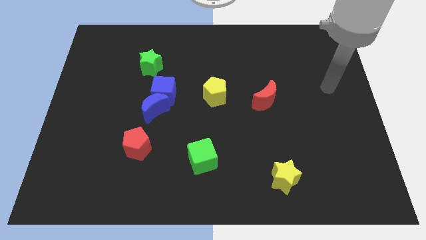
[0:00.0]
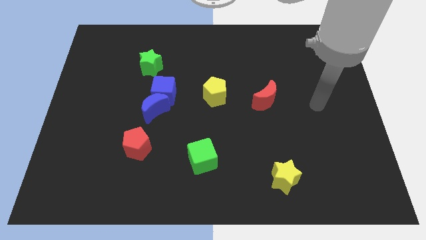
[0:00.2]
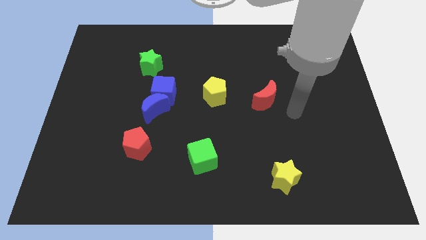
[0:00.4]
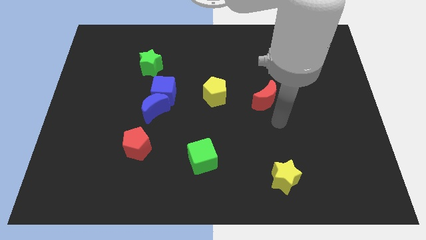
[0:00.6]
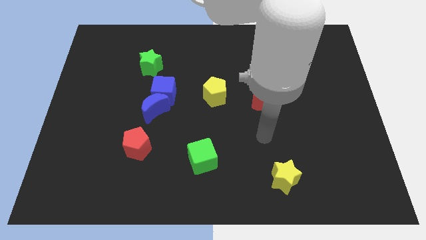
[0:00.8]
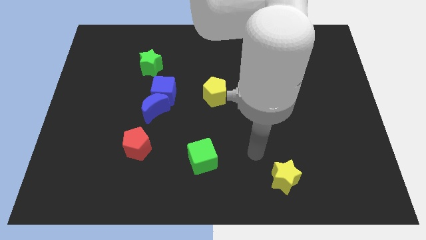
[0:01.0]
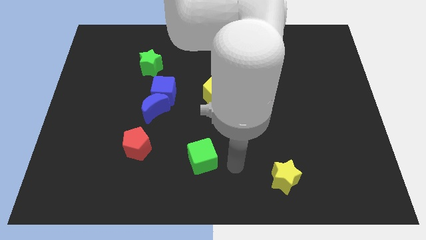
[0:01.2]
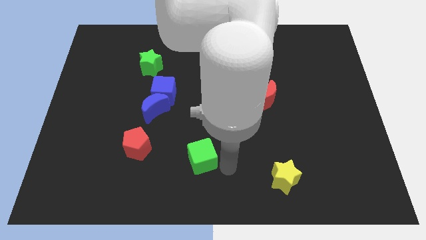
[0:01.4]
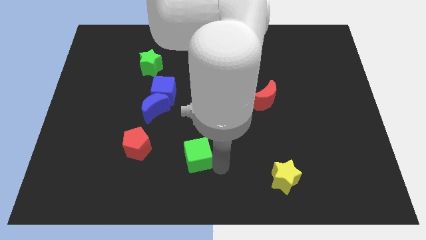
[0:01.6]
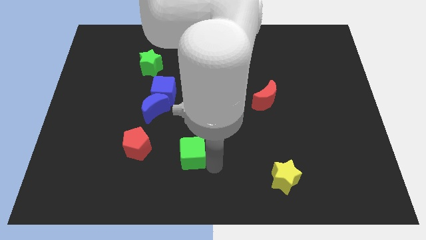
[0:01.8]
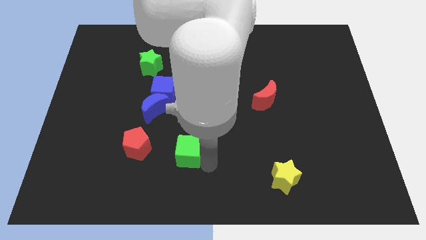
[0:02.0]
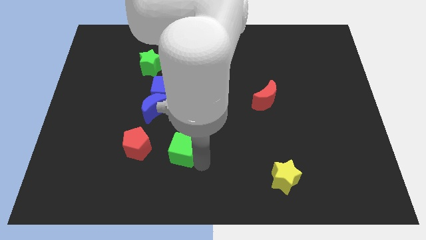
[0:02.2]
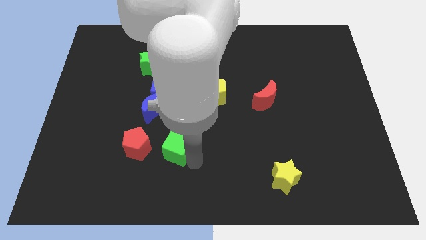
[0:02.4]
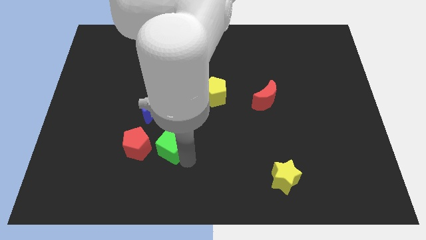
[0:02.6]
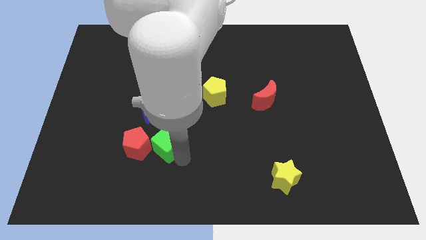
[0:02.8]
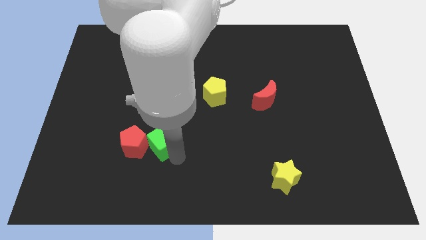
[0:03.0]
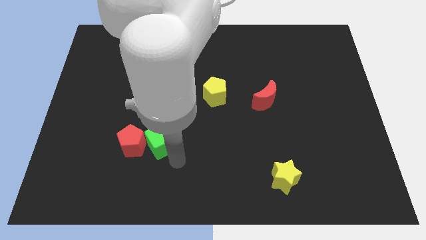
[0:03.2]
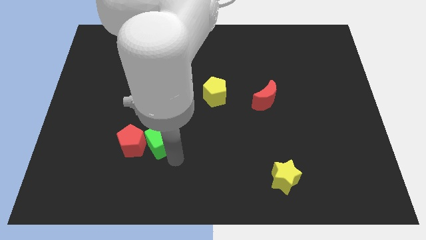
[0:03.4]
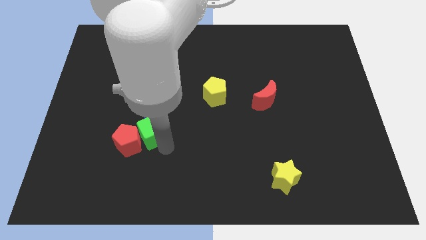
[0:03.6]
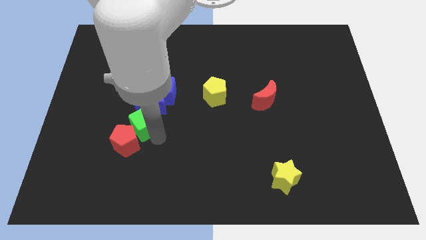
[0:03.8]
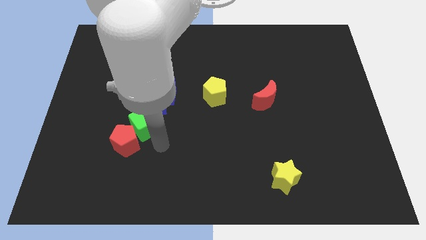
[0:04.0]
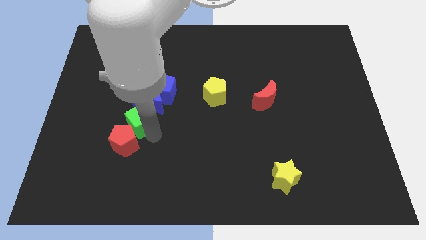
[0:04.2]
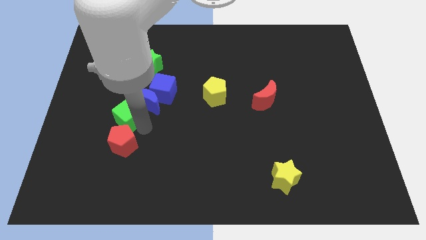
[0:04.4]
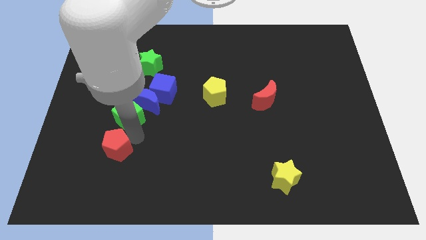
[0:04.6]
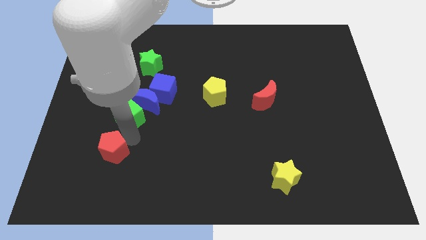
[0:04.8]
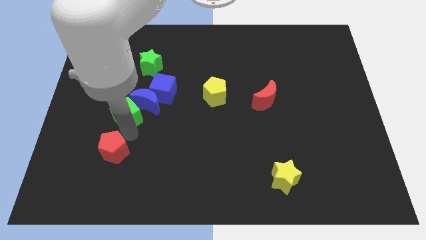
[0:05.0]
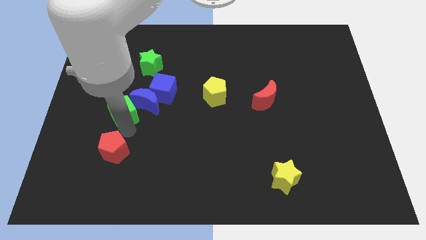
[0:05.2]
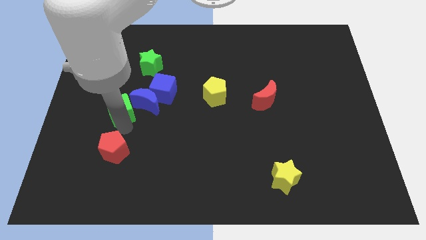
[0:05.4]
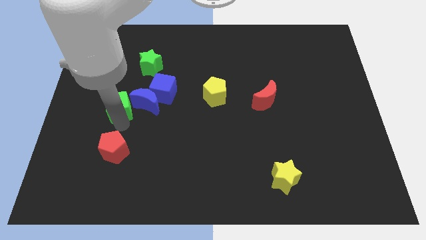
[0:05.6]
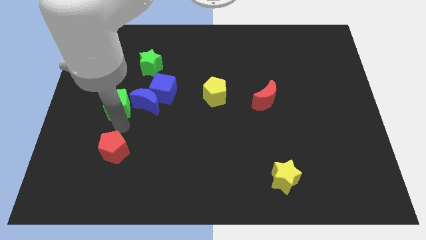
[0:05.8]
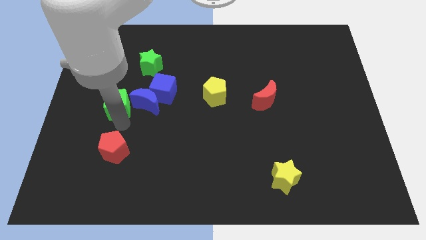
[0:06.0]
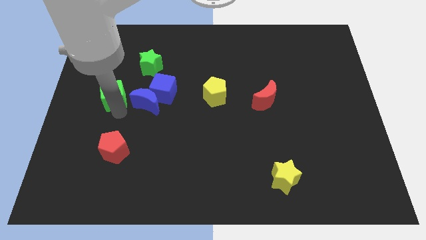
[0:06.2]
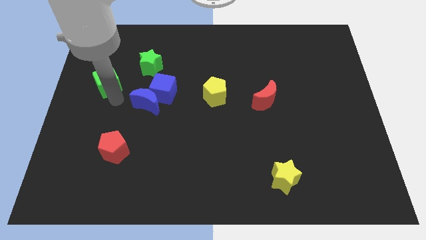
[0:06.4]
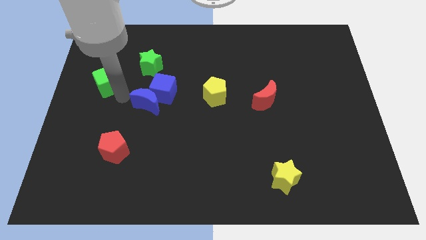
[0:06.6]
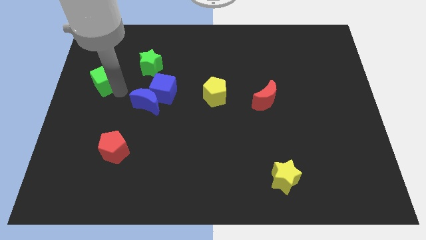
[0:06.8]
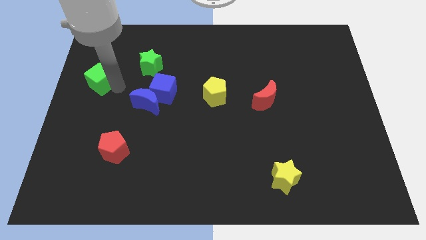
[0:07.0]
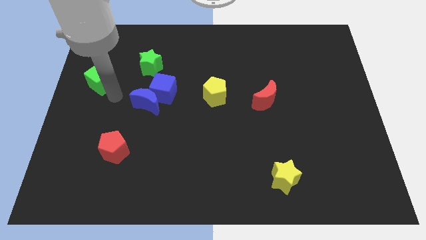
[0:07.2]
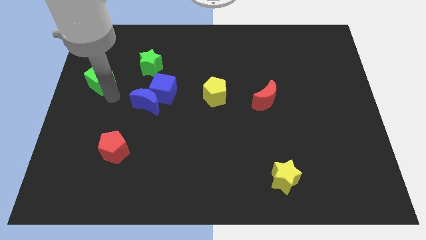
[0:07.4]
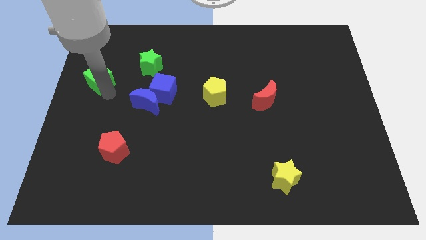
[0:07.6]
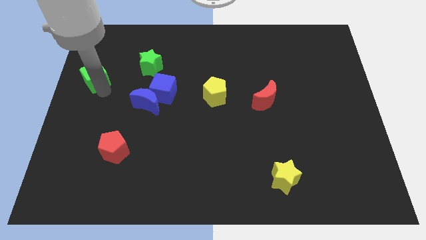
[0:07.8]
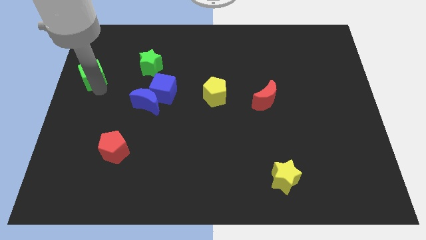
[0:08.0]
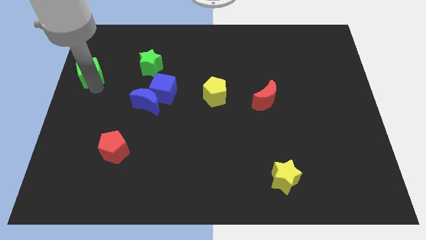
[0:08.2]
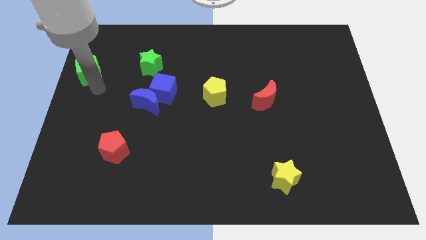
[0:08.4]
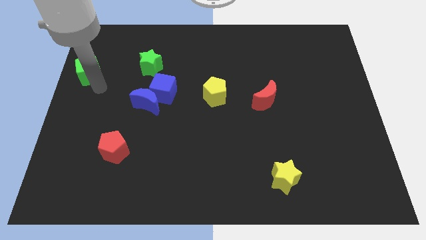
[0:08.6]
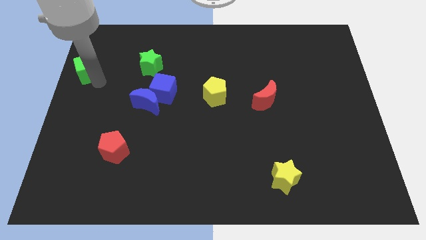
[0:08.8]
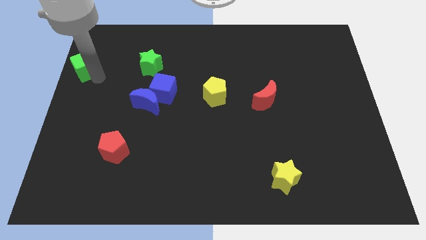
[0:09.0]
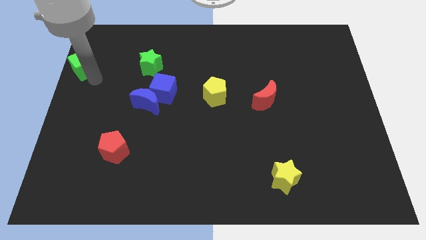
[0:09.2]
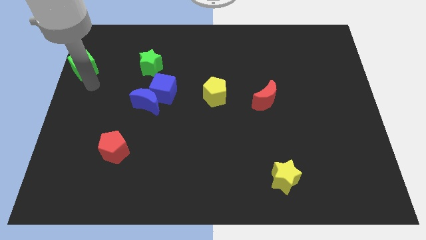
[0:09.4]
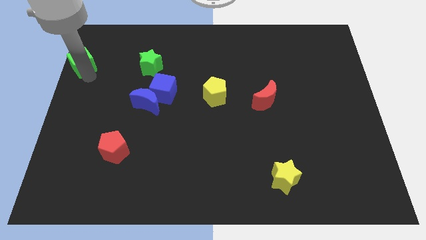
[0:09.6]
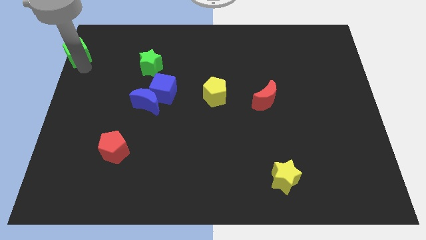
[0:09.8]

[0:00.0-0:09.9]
slide the green cube to the top left corner

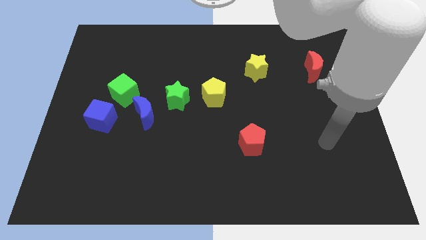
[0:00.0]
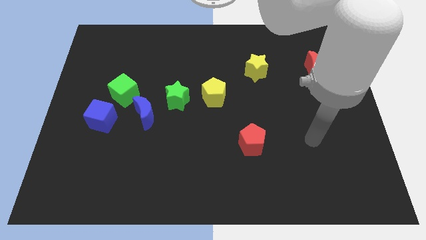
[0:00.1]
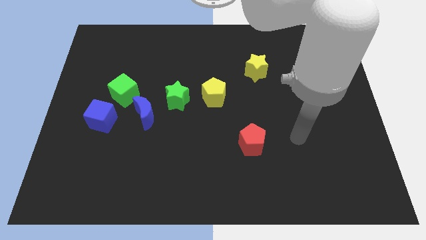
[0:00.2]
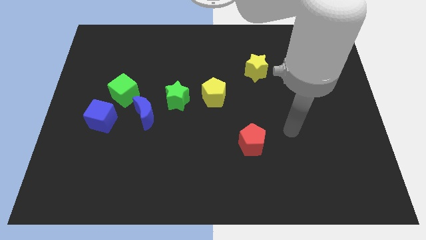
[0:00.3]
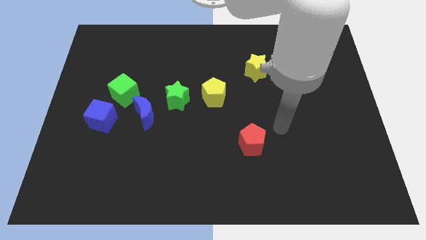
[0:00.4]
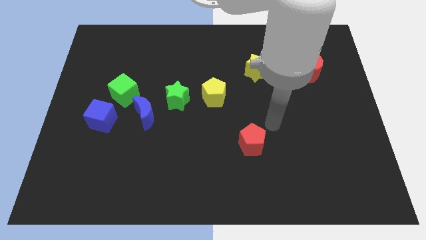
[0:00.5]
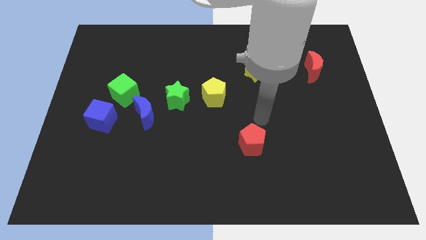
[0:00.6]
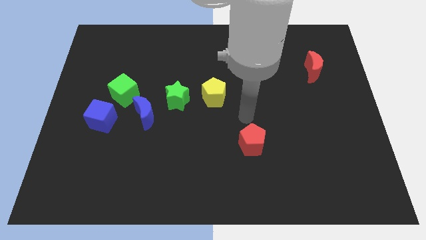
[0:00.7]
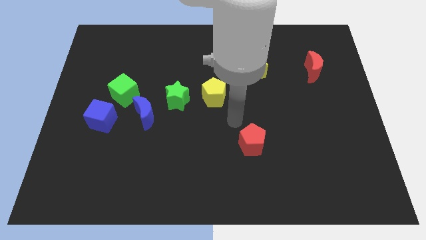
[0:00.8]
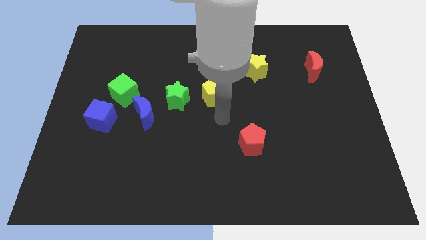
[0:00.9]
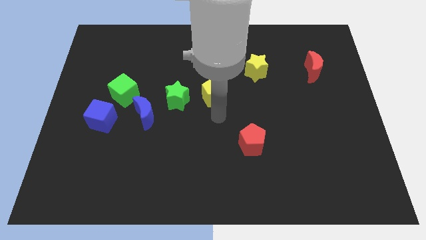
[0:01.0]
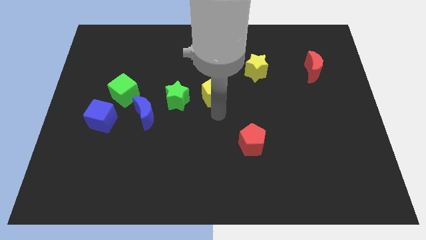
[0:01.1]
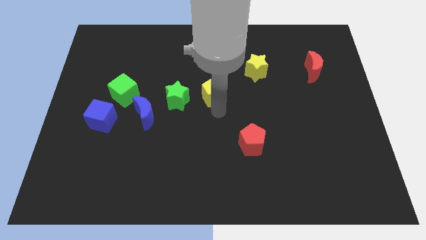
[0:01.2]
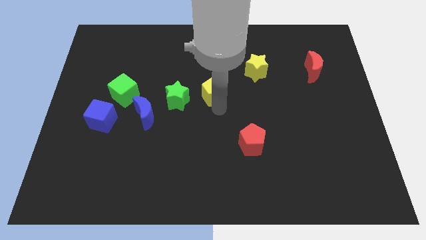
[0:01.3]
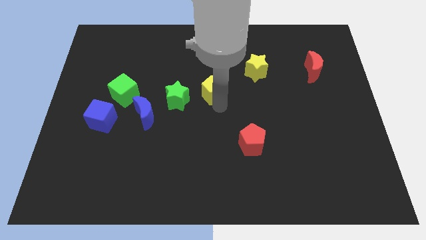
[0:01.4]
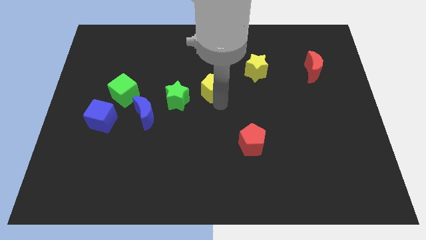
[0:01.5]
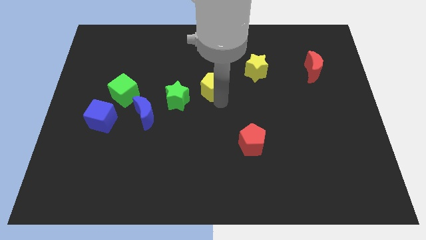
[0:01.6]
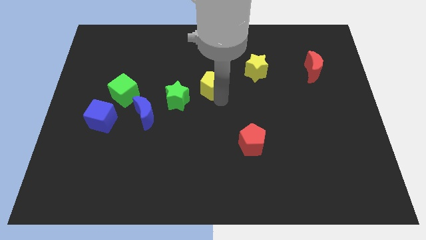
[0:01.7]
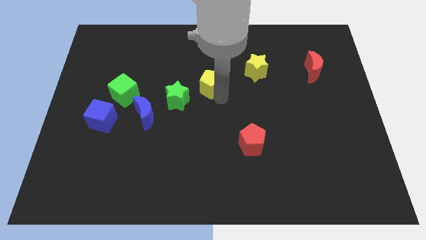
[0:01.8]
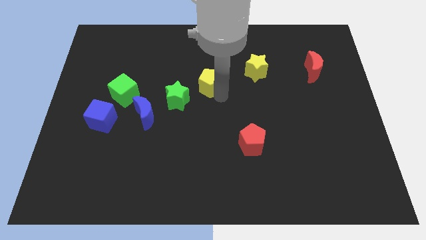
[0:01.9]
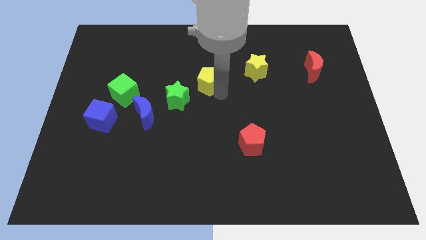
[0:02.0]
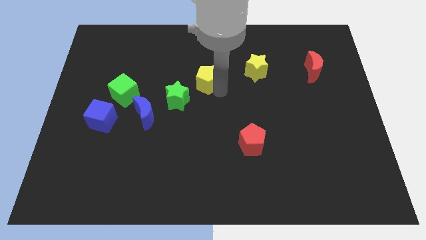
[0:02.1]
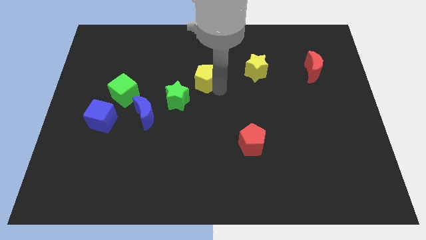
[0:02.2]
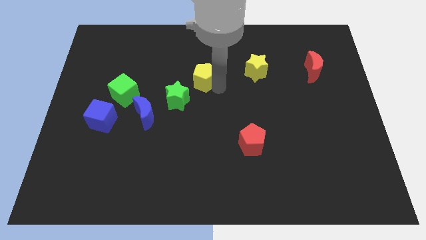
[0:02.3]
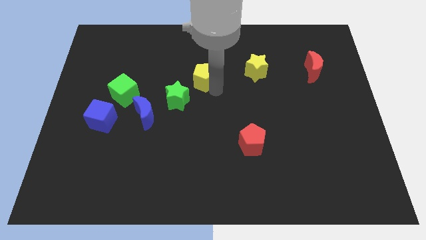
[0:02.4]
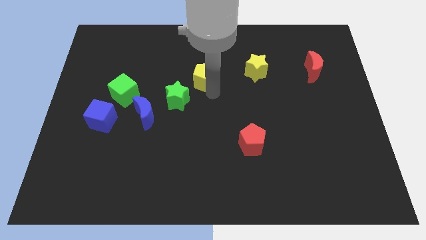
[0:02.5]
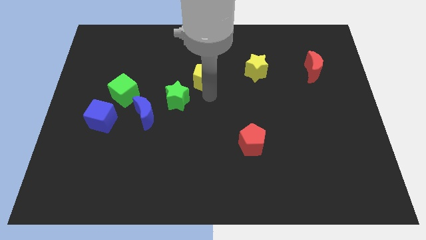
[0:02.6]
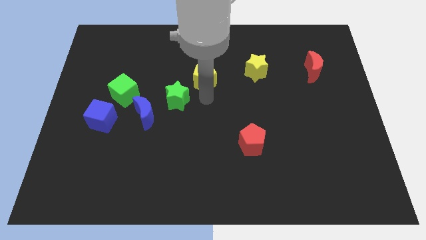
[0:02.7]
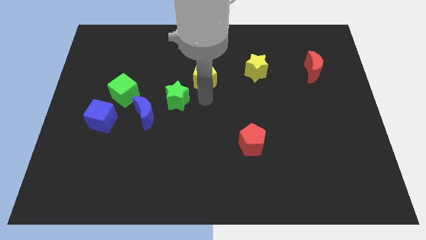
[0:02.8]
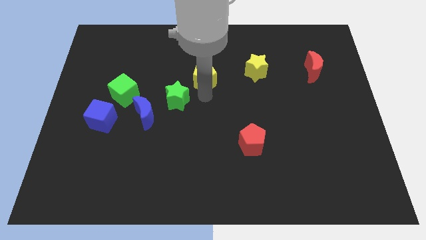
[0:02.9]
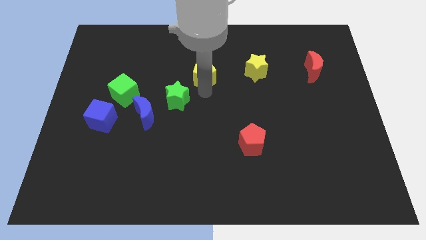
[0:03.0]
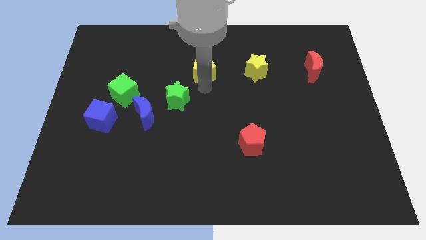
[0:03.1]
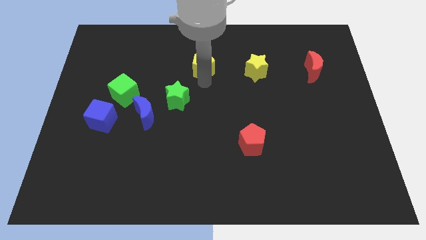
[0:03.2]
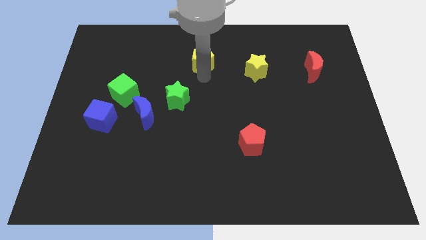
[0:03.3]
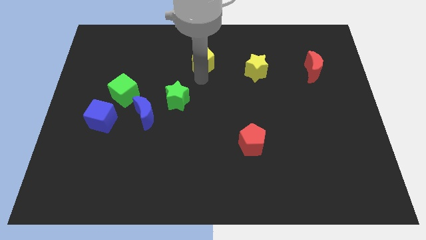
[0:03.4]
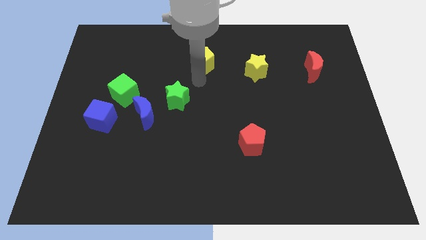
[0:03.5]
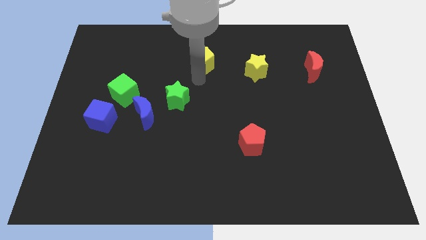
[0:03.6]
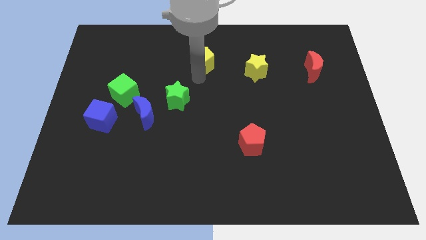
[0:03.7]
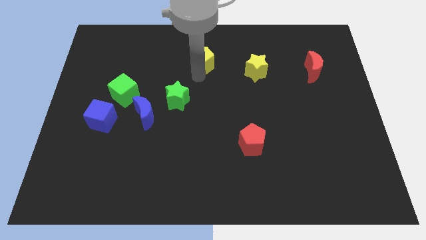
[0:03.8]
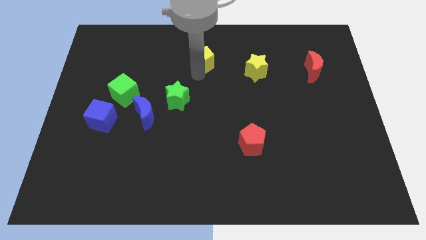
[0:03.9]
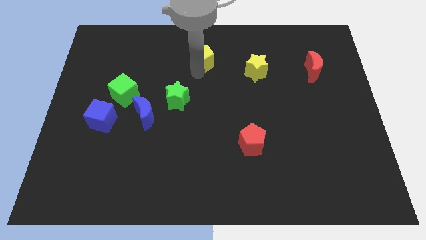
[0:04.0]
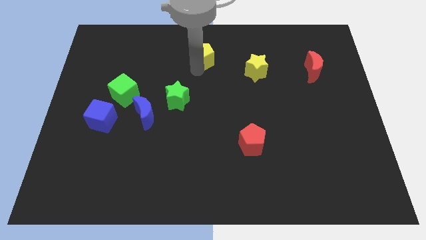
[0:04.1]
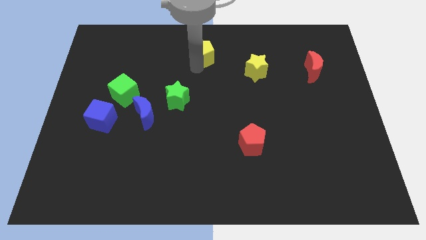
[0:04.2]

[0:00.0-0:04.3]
put the yellow pentagon to the top side
